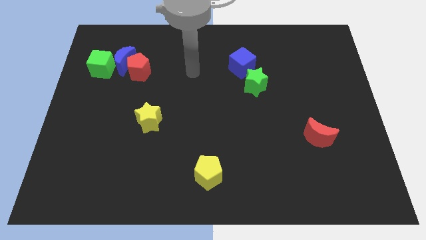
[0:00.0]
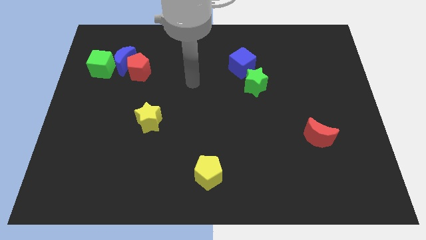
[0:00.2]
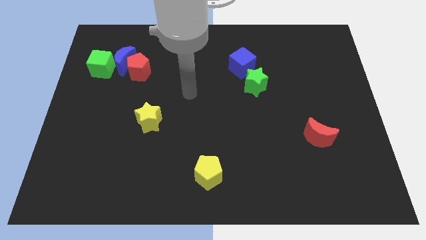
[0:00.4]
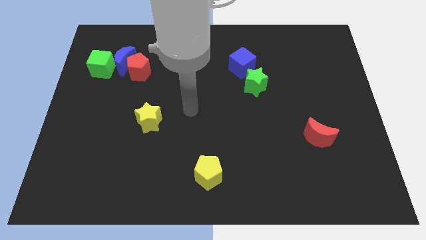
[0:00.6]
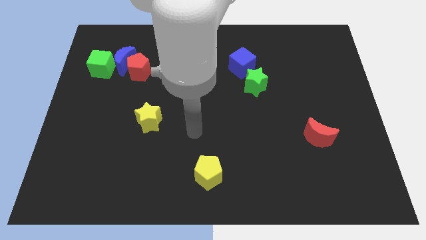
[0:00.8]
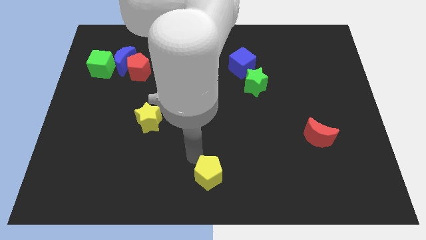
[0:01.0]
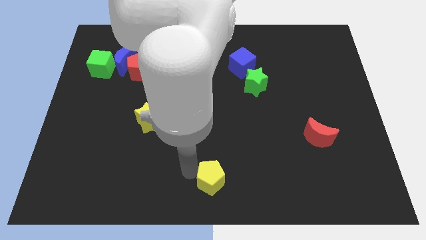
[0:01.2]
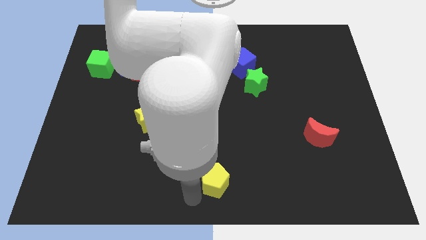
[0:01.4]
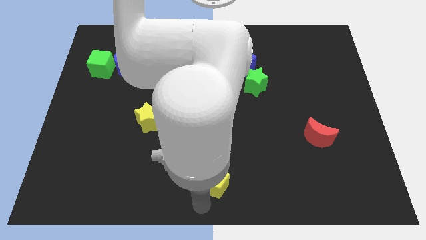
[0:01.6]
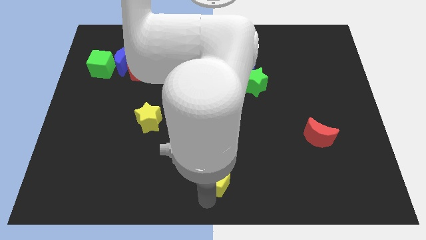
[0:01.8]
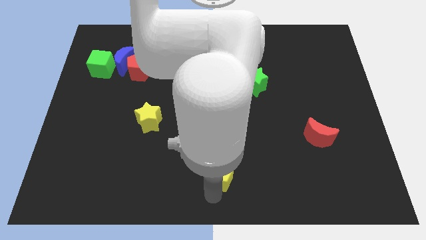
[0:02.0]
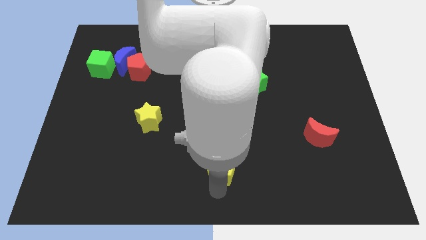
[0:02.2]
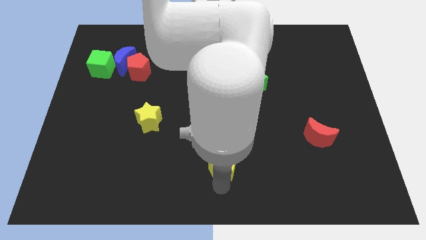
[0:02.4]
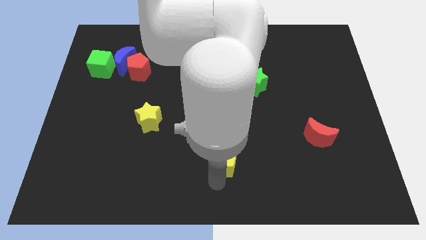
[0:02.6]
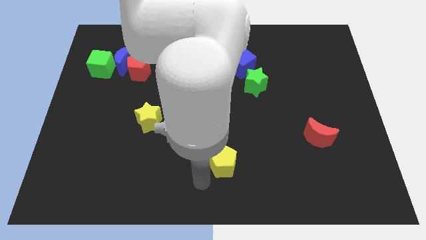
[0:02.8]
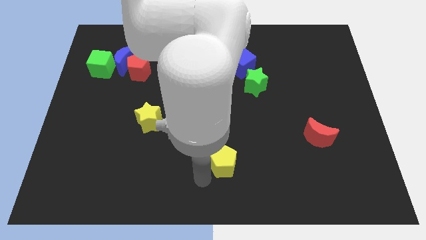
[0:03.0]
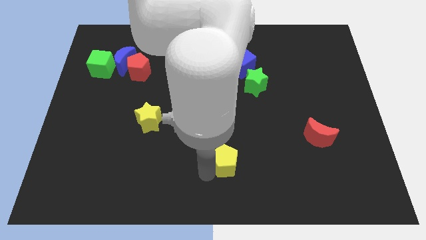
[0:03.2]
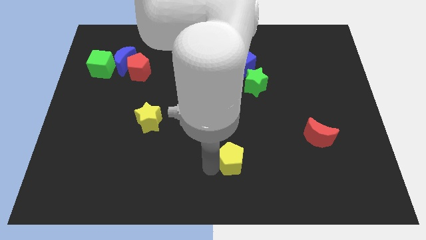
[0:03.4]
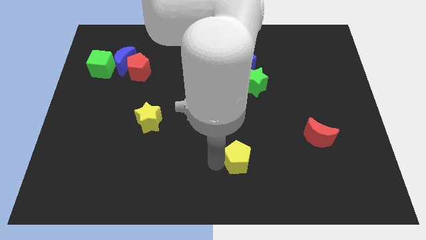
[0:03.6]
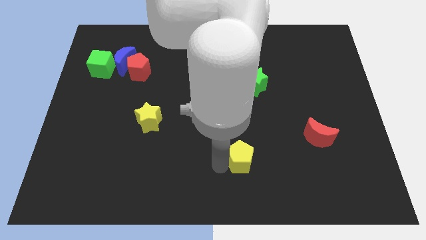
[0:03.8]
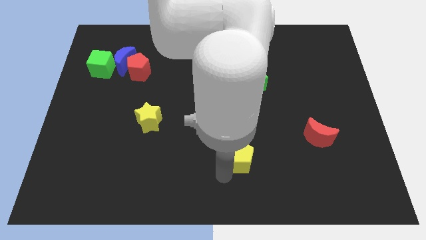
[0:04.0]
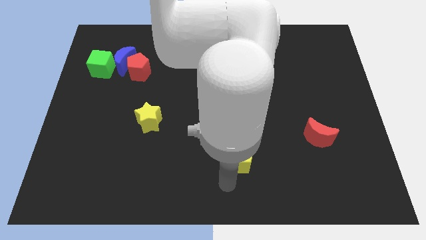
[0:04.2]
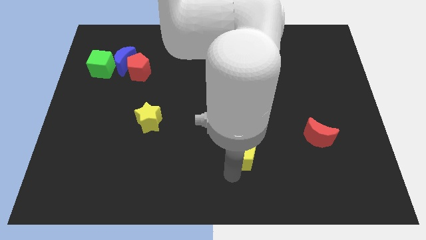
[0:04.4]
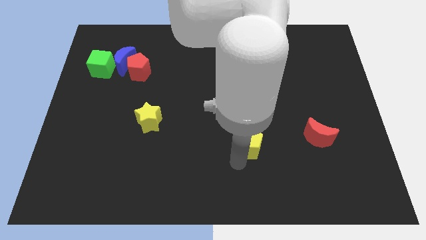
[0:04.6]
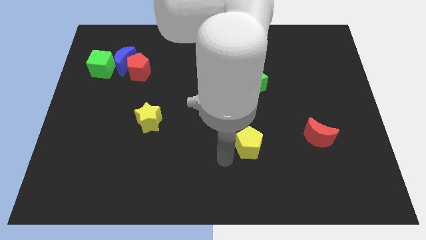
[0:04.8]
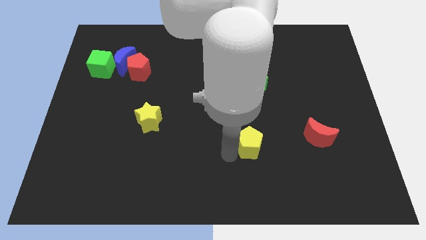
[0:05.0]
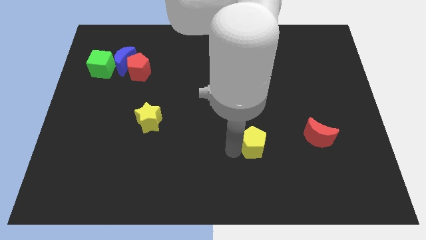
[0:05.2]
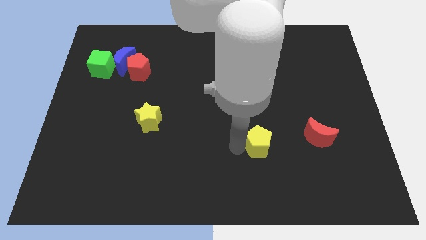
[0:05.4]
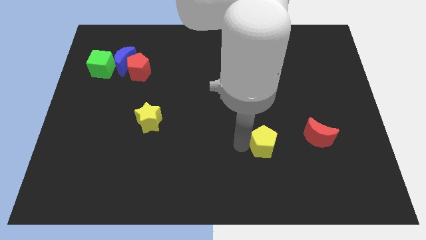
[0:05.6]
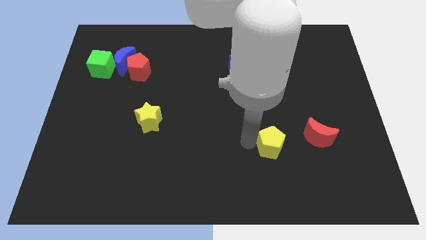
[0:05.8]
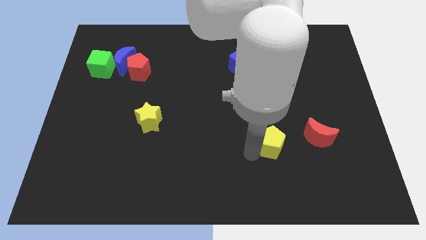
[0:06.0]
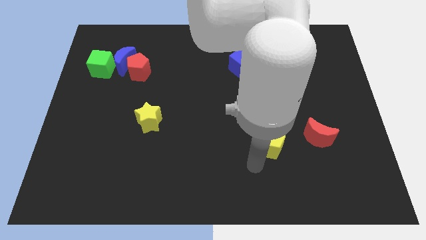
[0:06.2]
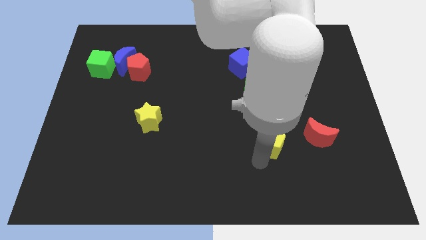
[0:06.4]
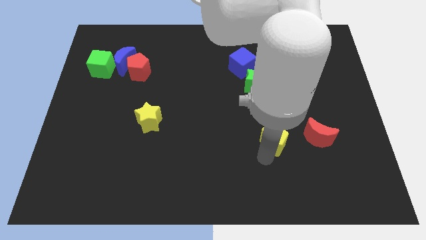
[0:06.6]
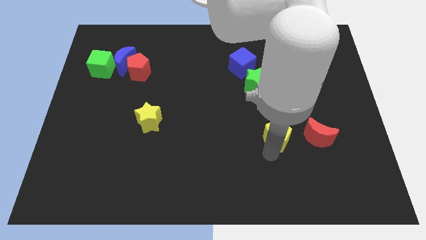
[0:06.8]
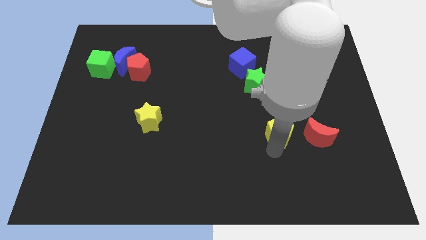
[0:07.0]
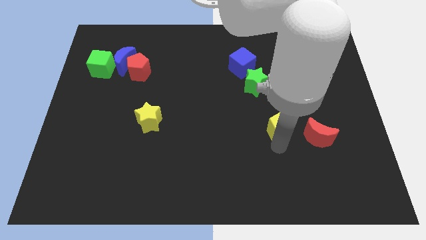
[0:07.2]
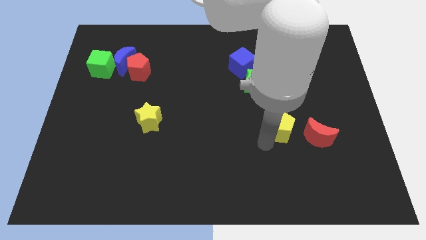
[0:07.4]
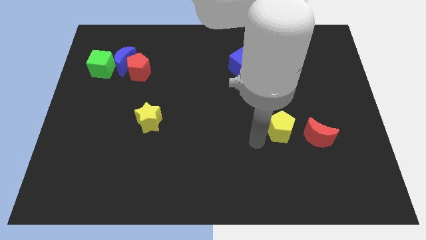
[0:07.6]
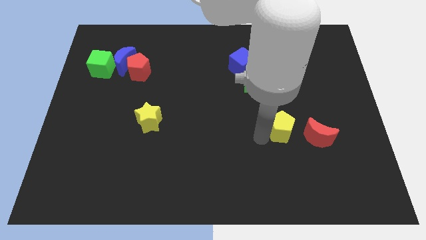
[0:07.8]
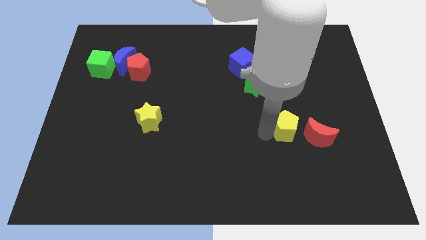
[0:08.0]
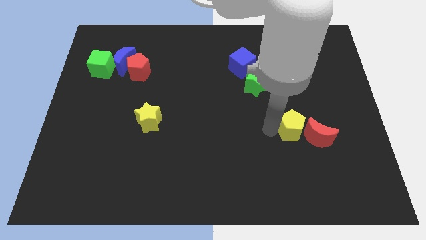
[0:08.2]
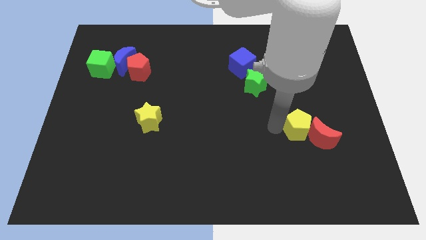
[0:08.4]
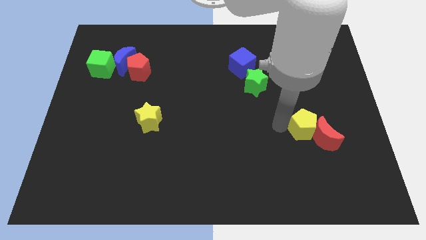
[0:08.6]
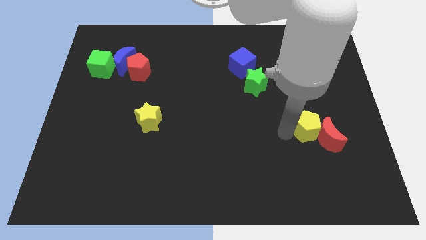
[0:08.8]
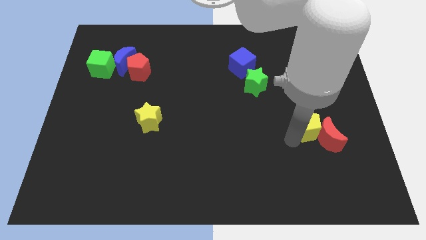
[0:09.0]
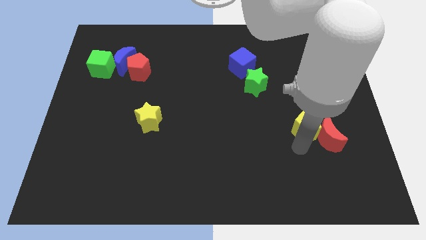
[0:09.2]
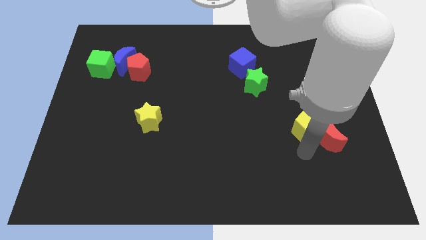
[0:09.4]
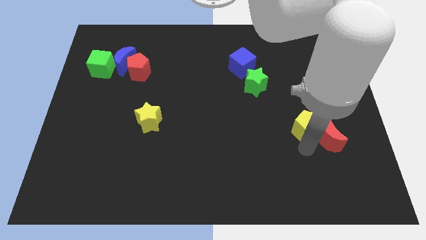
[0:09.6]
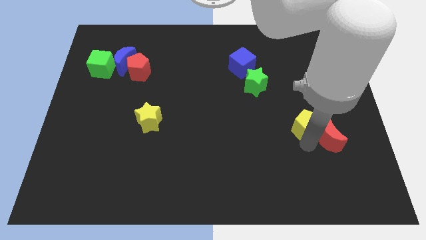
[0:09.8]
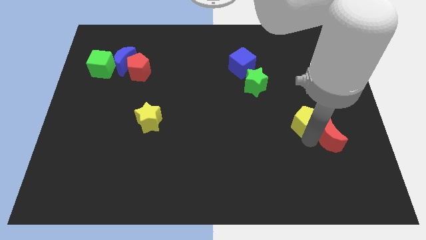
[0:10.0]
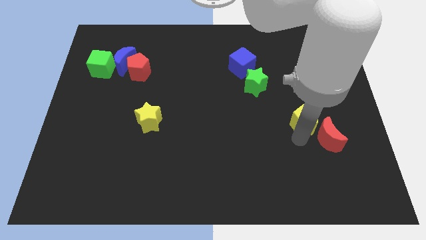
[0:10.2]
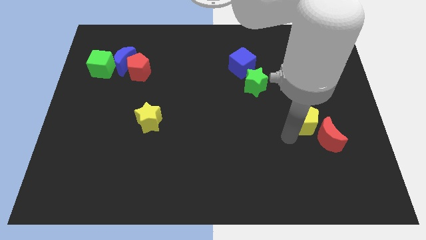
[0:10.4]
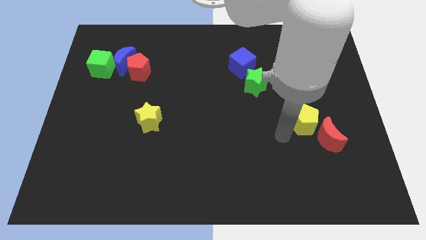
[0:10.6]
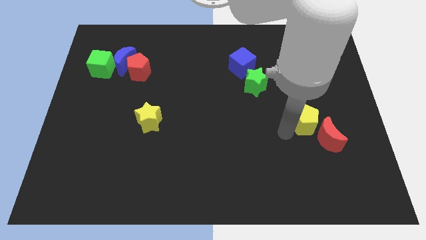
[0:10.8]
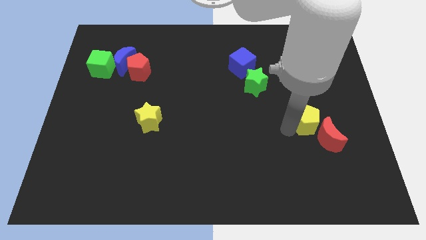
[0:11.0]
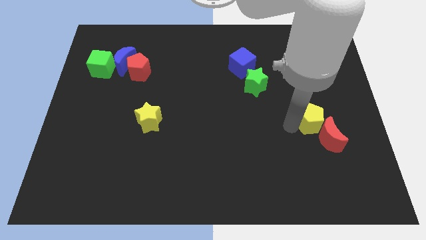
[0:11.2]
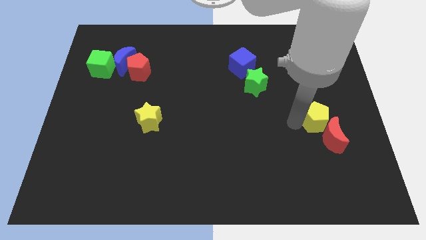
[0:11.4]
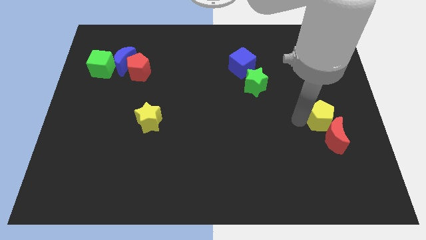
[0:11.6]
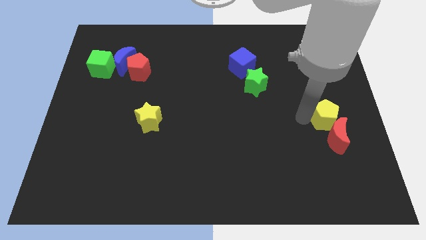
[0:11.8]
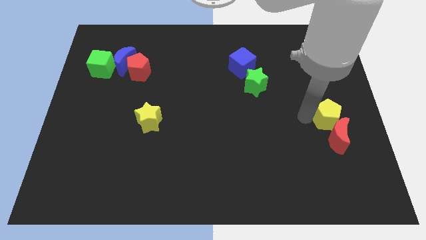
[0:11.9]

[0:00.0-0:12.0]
move the yellow pentagon to the right side of the board
